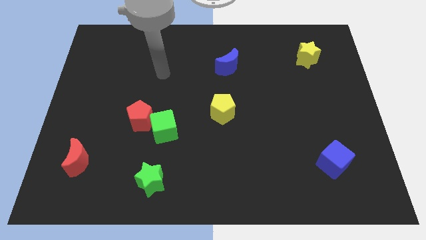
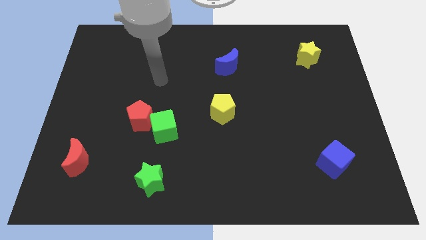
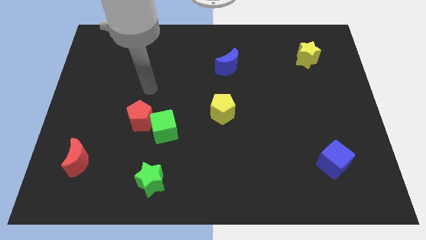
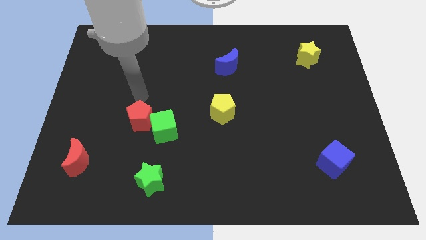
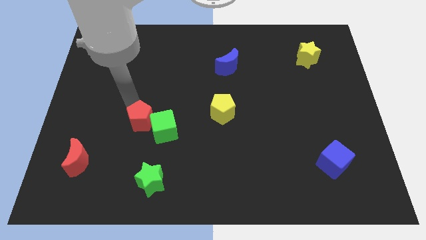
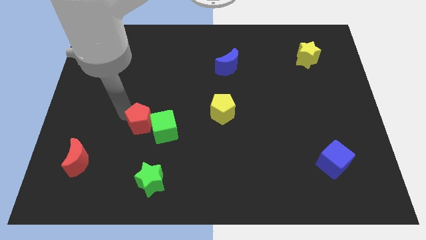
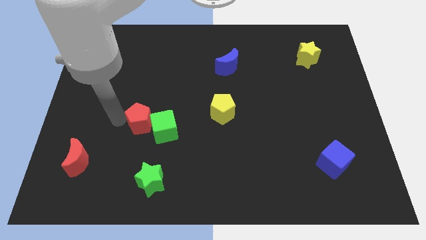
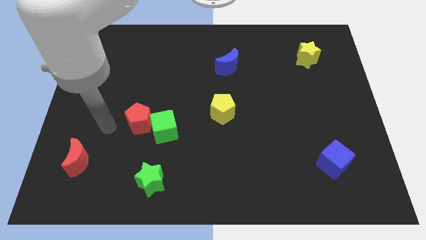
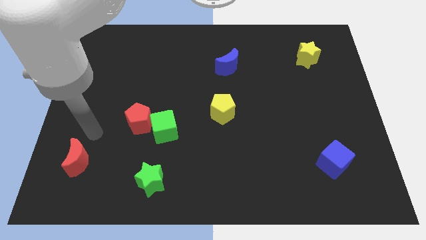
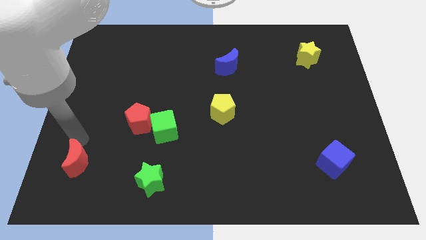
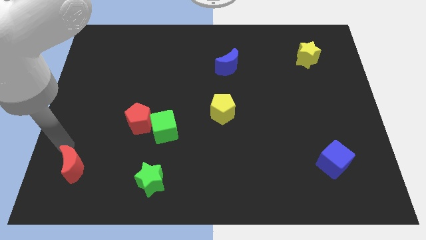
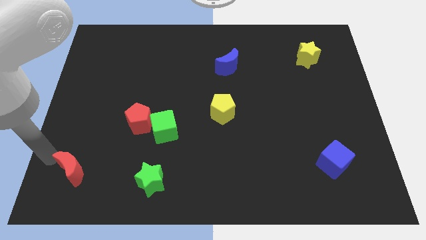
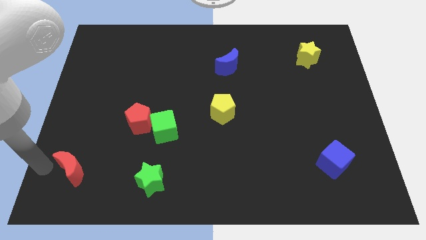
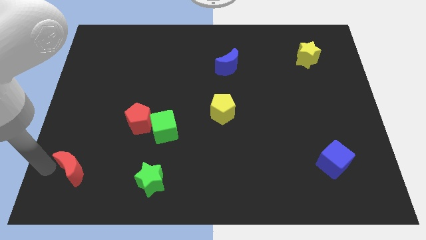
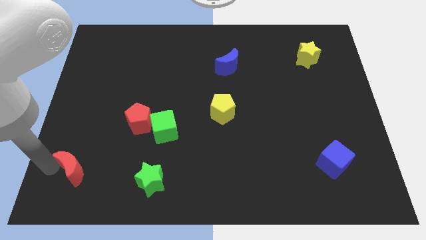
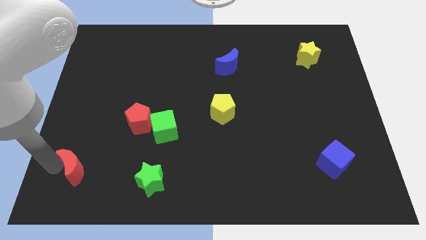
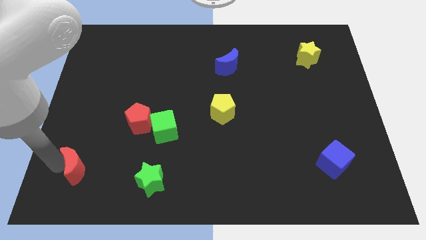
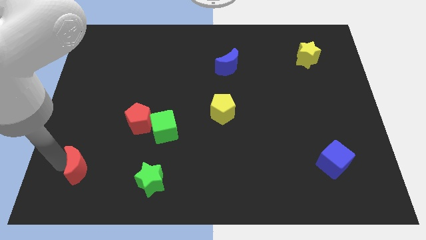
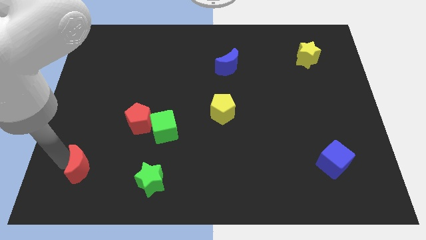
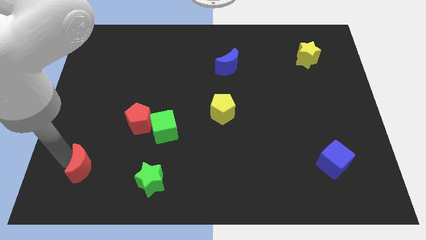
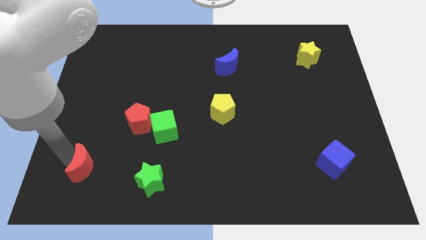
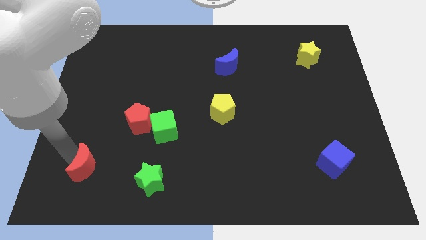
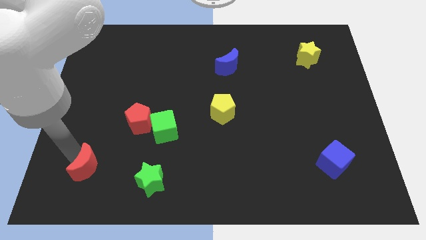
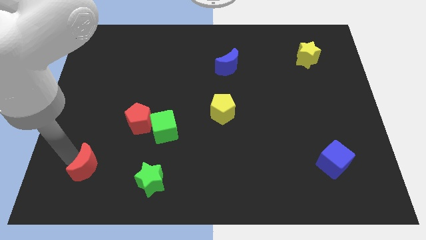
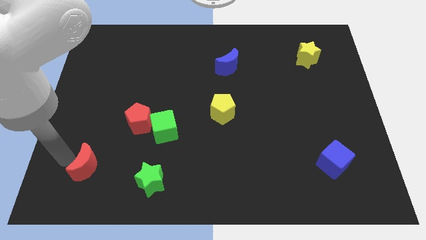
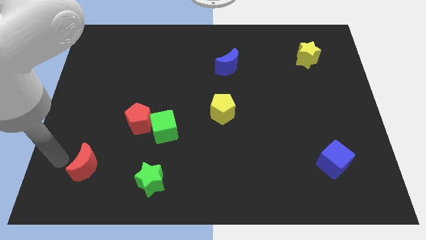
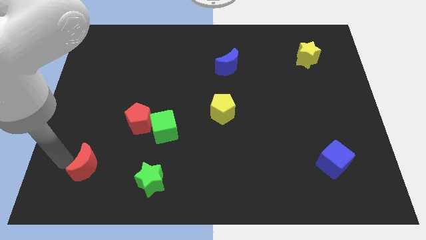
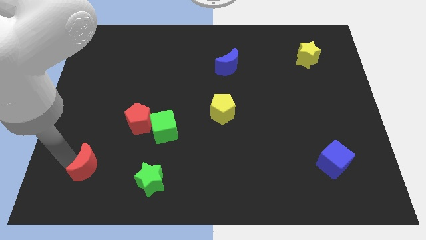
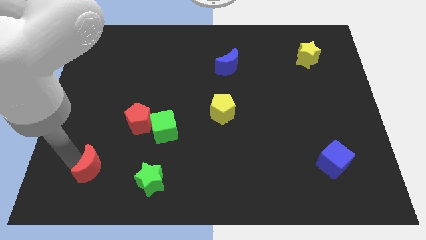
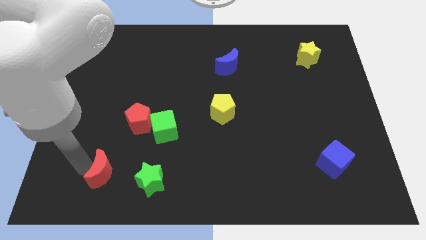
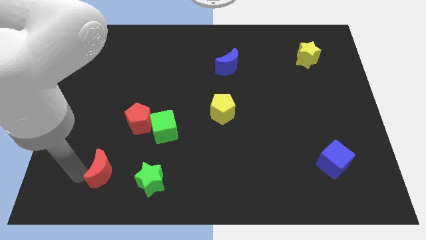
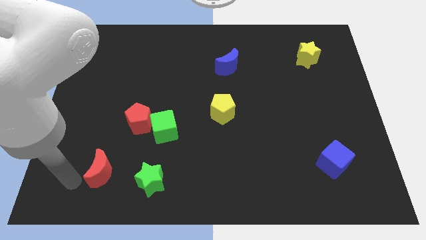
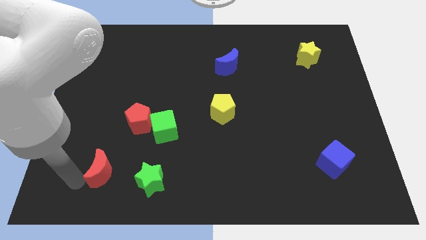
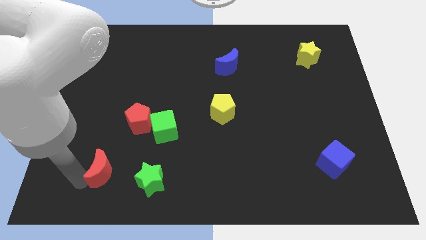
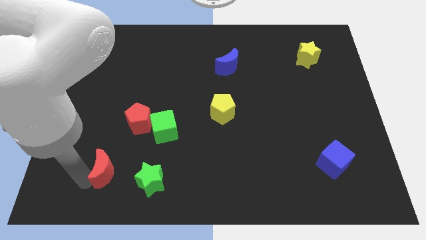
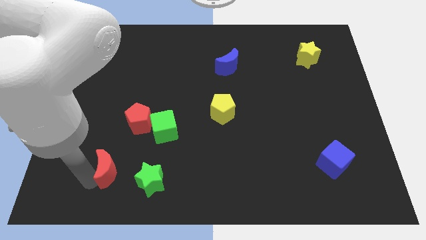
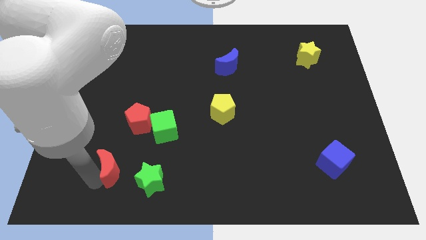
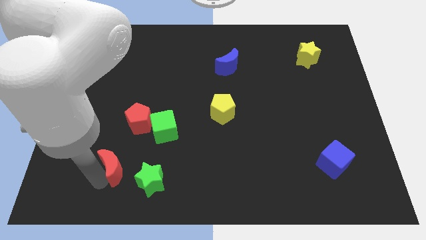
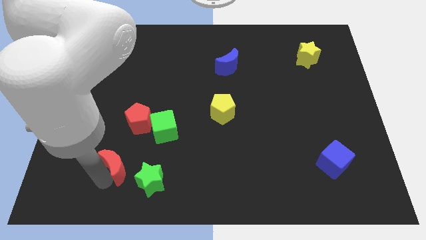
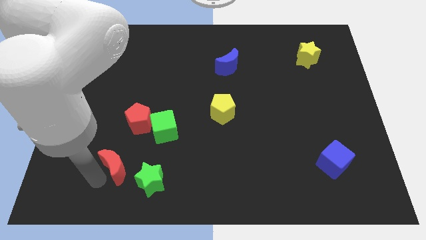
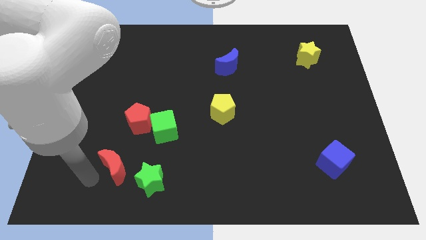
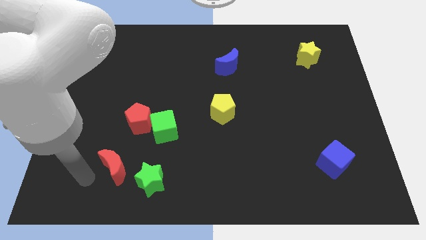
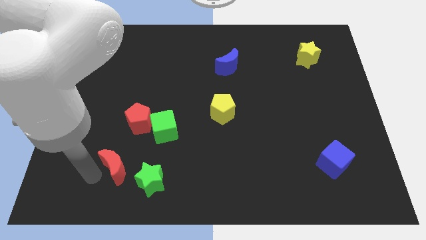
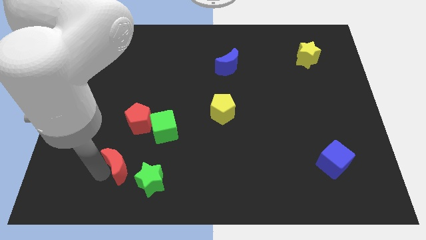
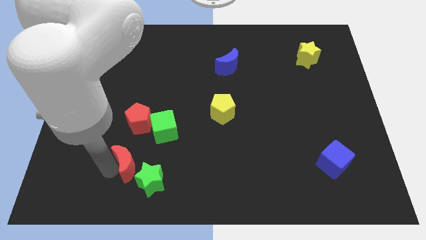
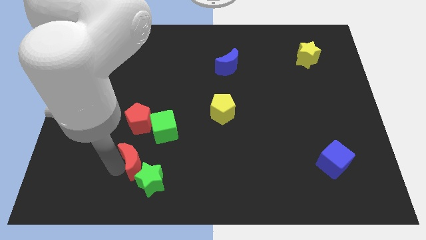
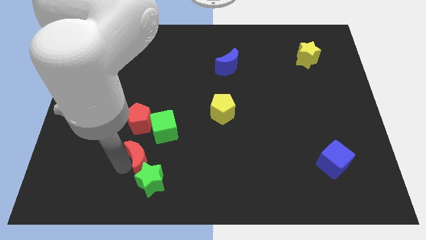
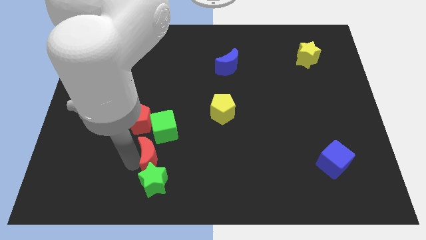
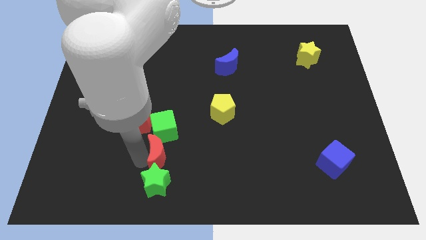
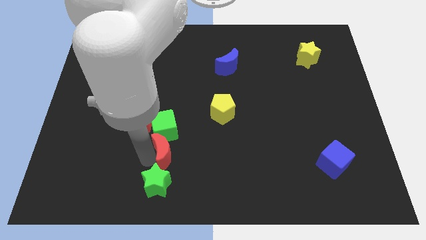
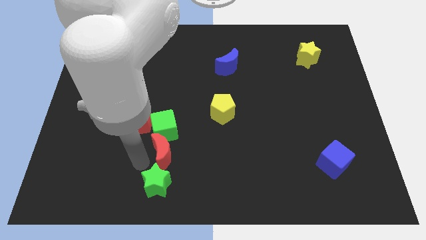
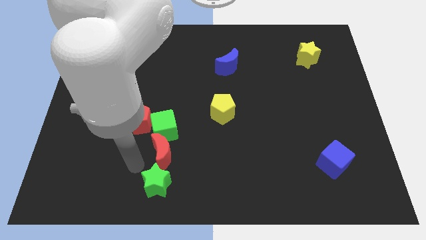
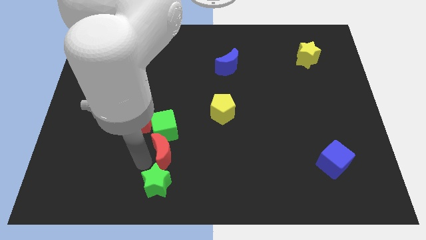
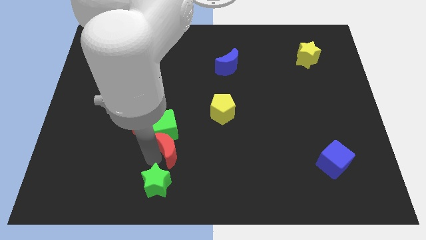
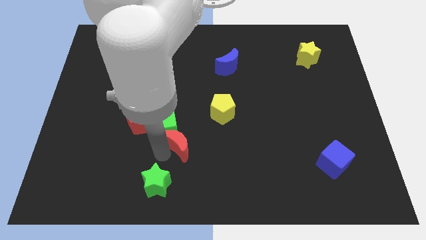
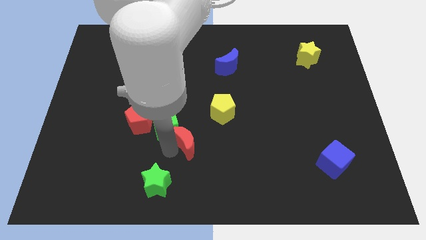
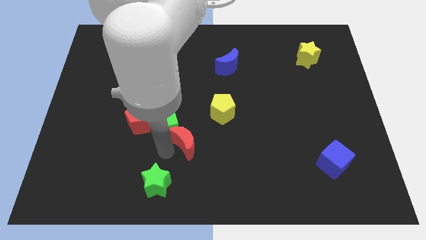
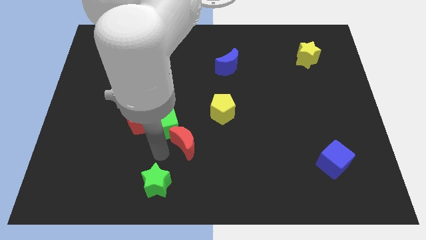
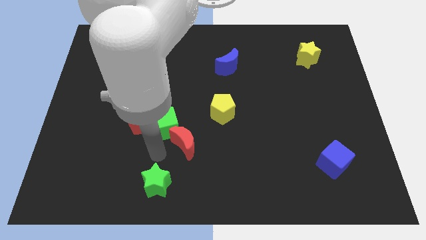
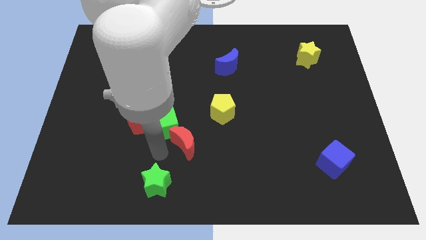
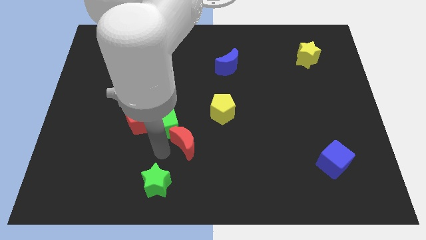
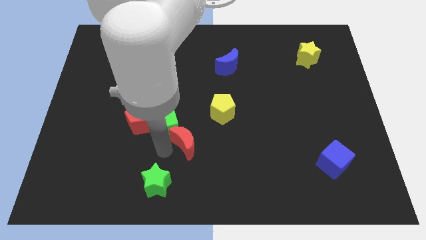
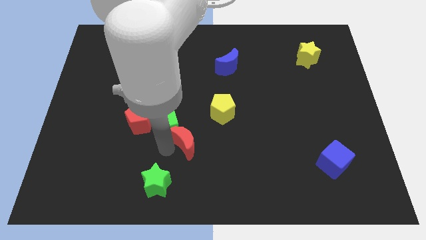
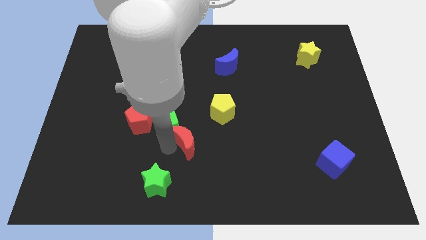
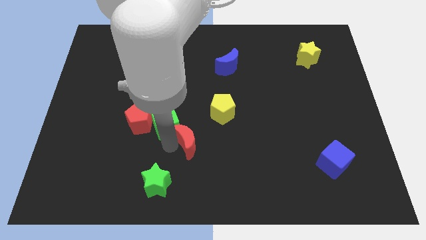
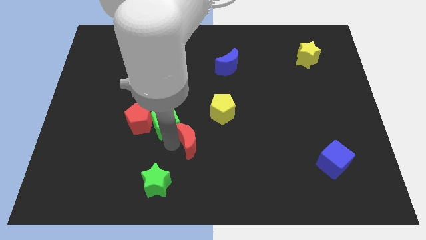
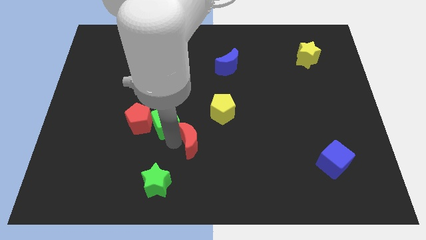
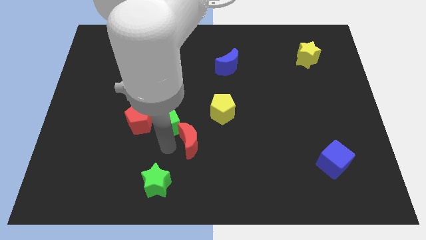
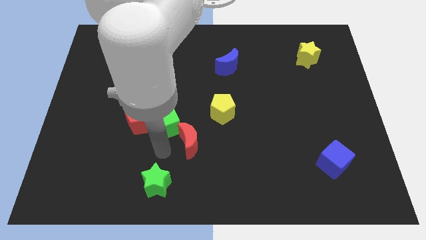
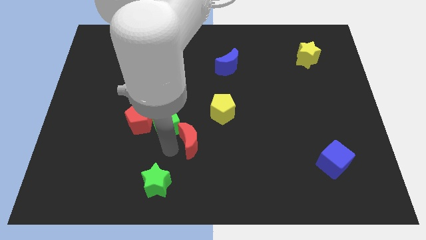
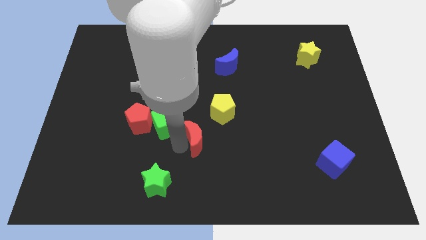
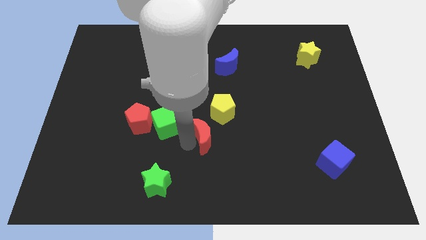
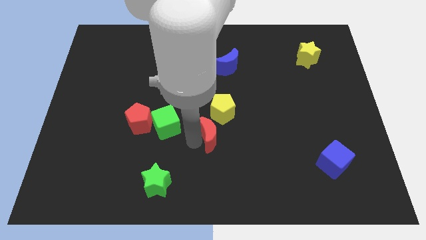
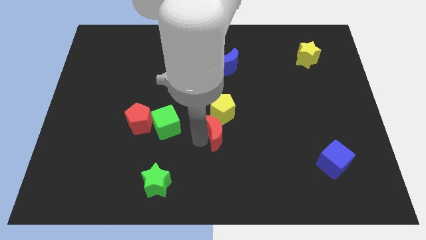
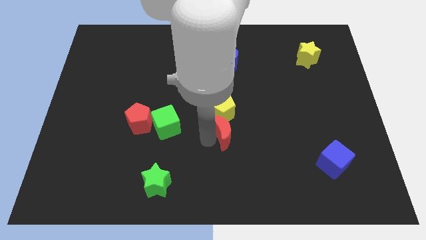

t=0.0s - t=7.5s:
slide the red moon next to the yellow pentagon
